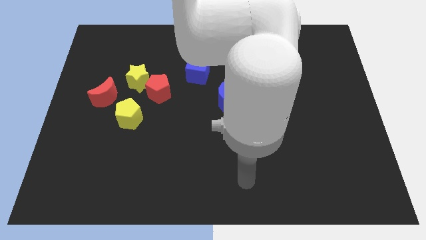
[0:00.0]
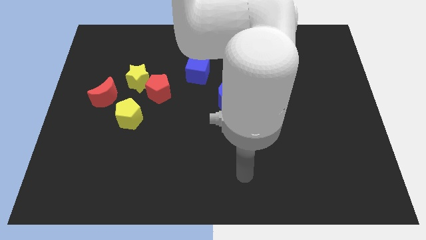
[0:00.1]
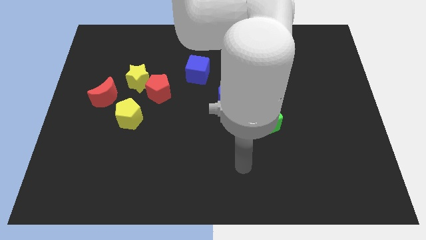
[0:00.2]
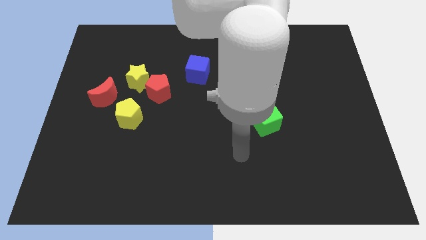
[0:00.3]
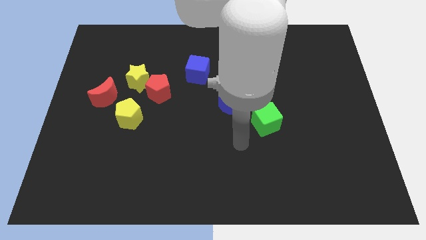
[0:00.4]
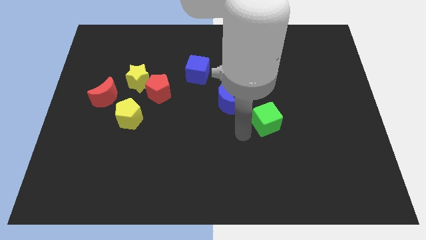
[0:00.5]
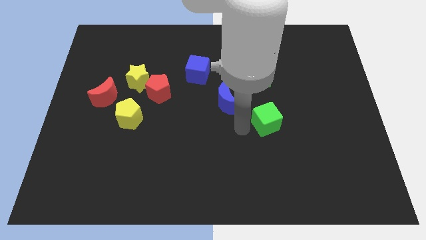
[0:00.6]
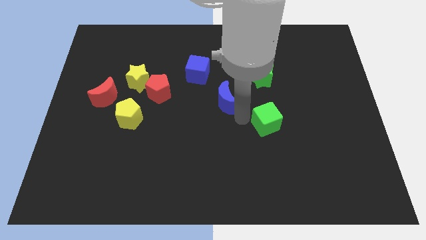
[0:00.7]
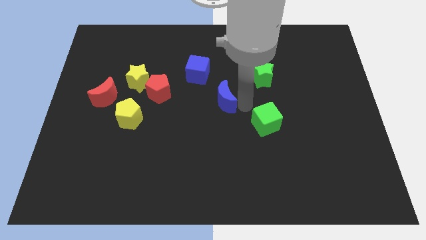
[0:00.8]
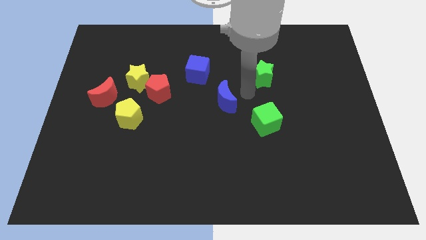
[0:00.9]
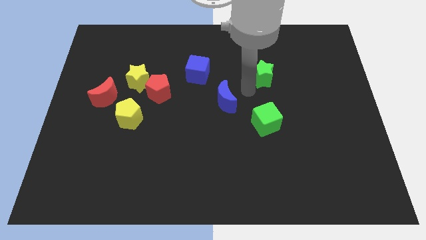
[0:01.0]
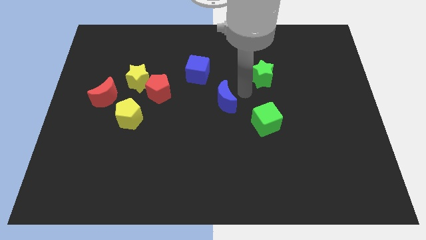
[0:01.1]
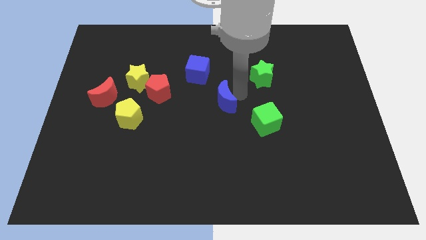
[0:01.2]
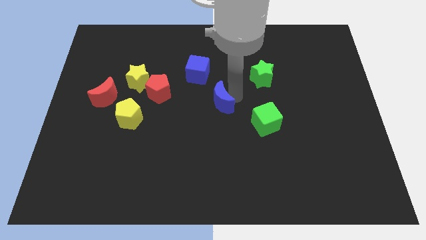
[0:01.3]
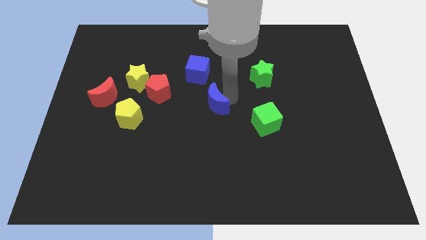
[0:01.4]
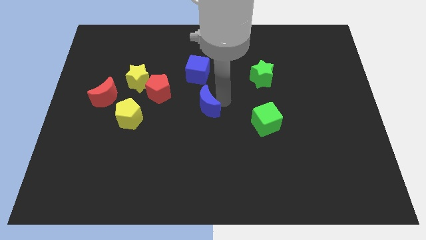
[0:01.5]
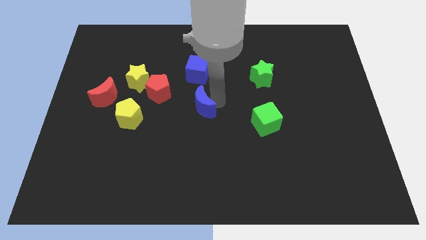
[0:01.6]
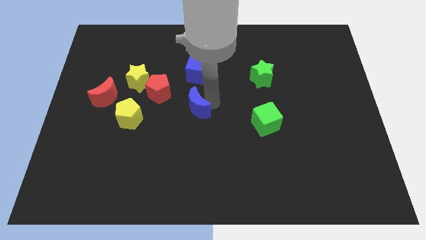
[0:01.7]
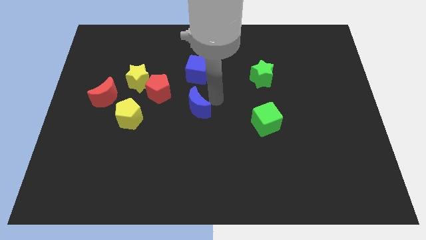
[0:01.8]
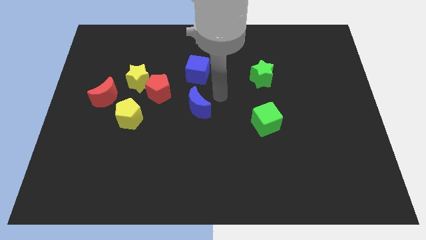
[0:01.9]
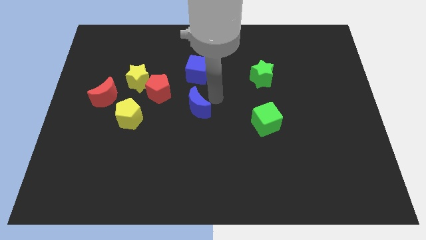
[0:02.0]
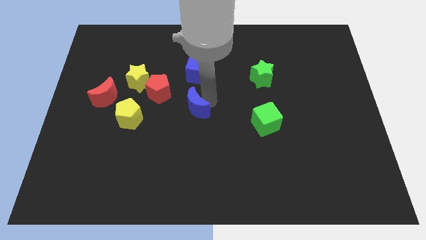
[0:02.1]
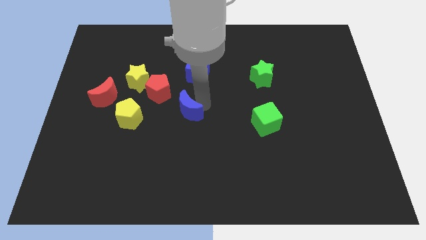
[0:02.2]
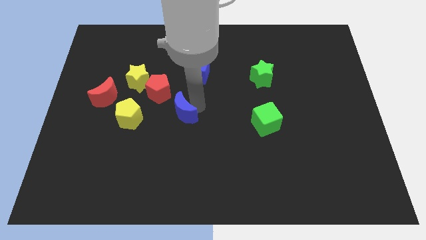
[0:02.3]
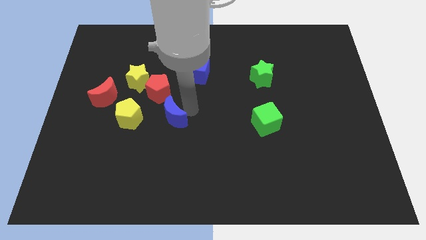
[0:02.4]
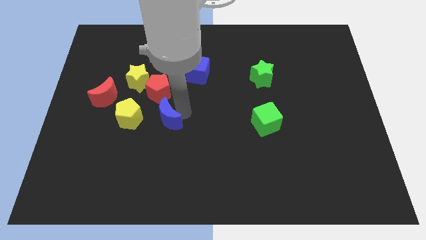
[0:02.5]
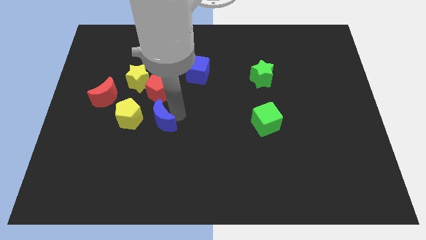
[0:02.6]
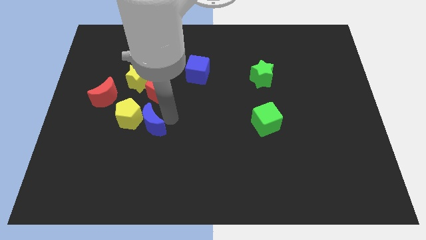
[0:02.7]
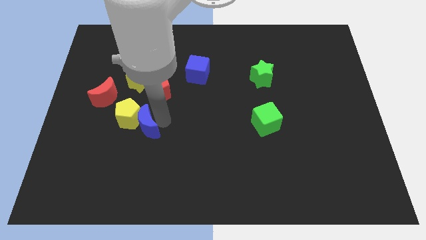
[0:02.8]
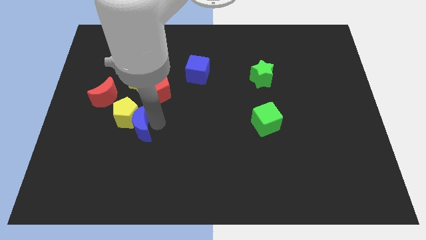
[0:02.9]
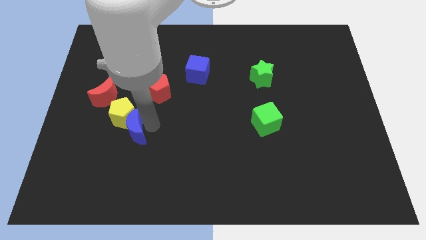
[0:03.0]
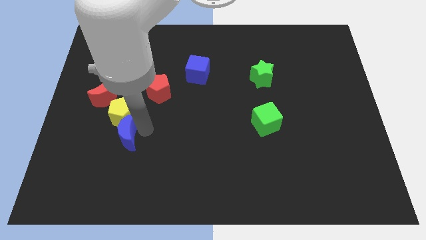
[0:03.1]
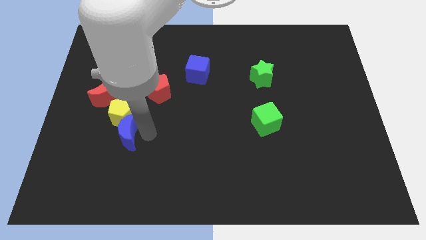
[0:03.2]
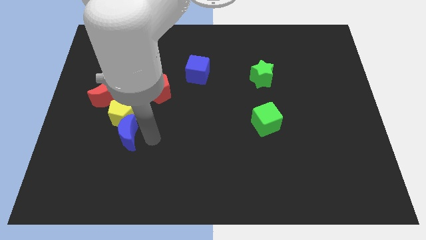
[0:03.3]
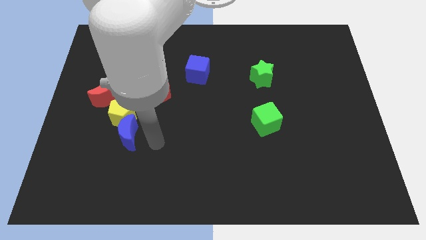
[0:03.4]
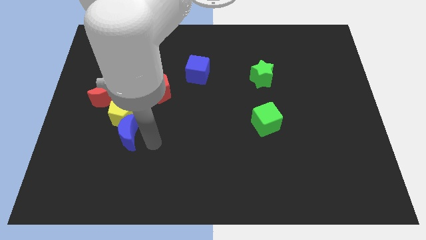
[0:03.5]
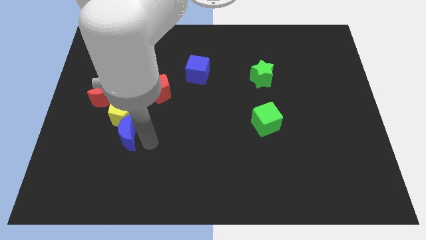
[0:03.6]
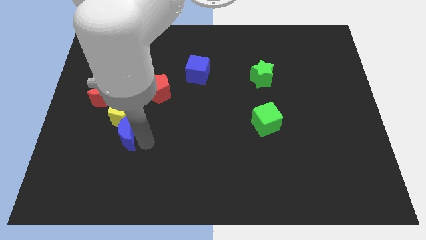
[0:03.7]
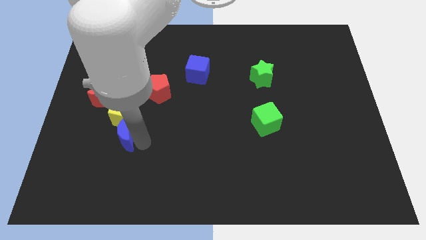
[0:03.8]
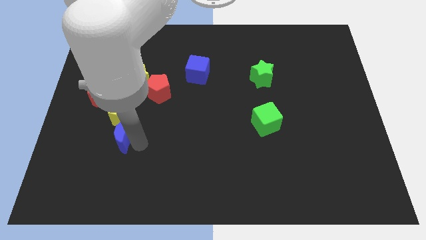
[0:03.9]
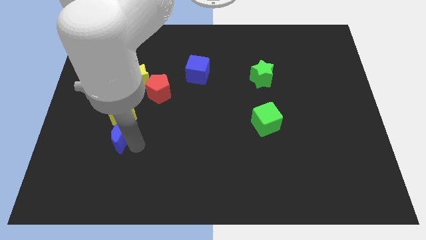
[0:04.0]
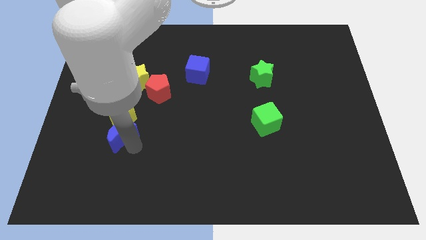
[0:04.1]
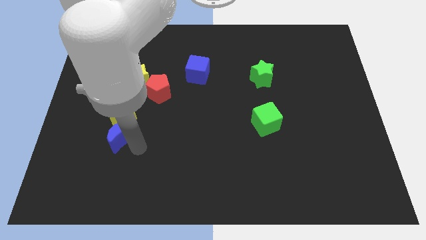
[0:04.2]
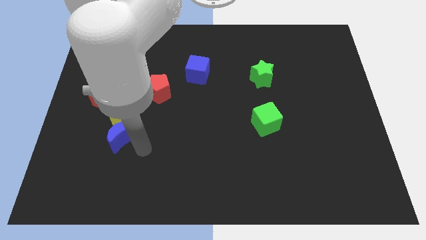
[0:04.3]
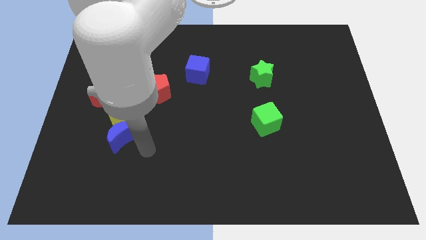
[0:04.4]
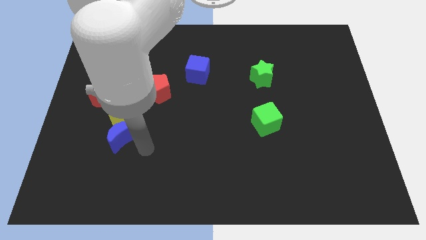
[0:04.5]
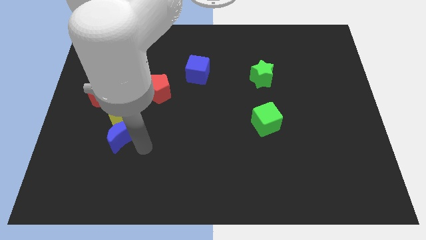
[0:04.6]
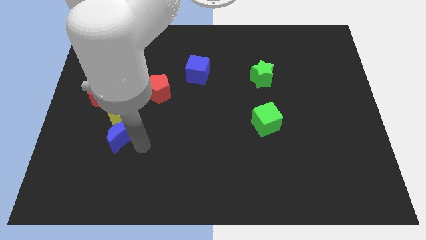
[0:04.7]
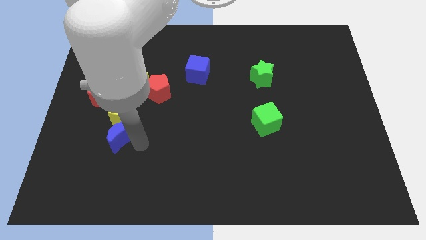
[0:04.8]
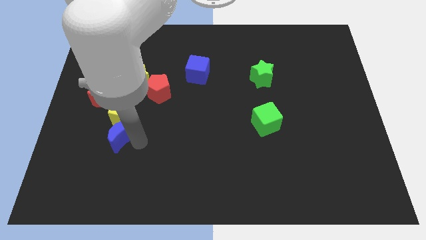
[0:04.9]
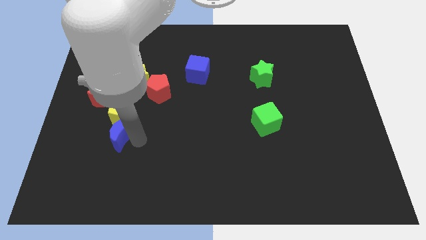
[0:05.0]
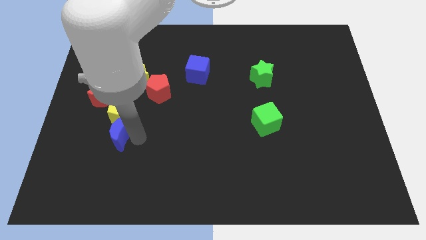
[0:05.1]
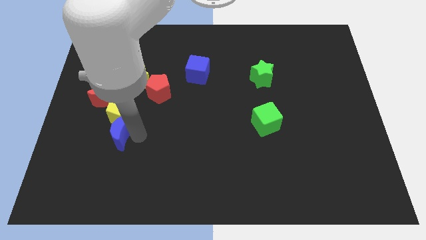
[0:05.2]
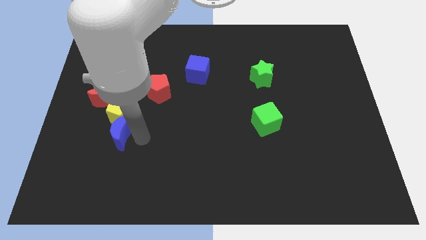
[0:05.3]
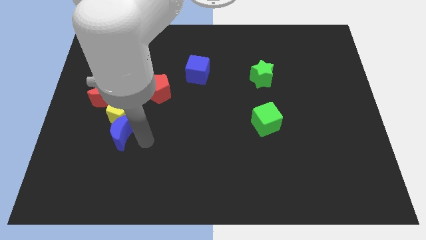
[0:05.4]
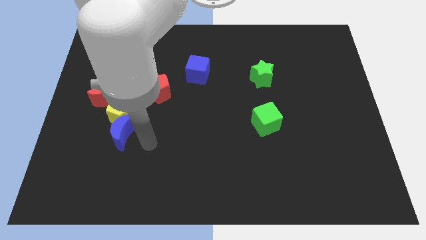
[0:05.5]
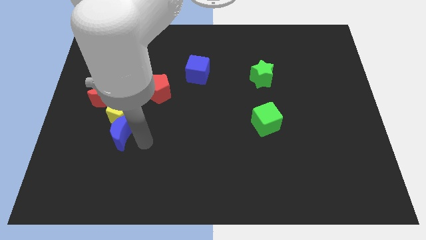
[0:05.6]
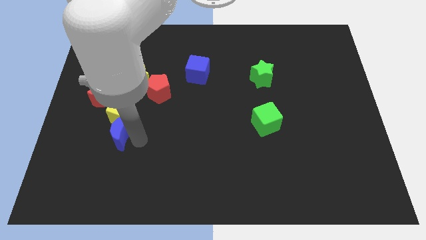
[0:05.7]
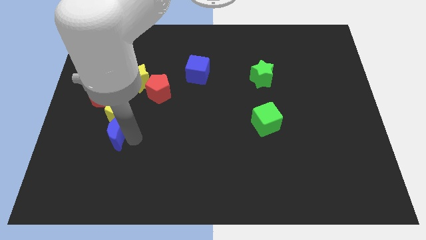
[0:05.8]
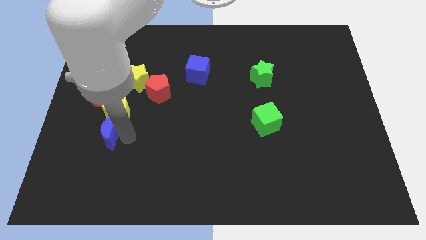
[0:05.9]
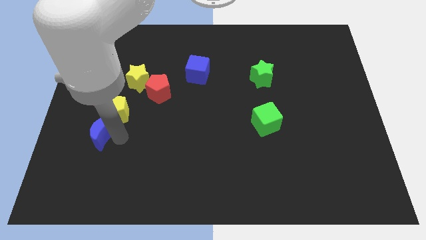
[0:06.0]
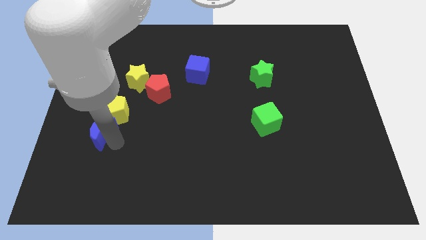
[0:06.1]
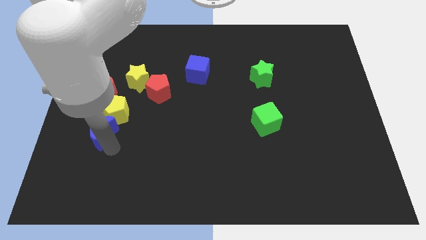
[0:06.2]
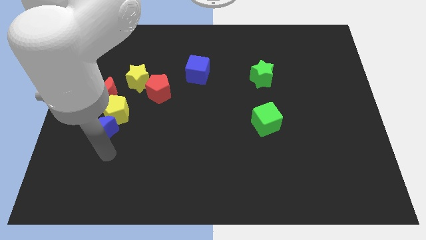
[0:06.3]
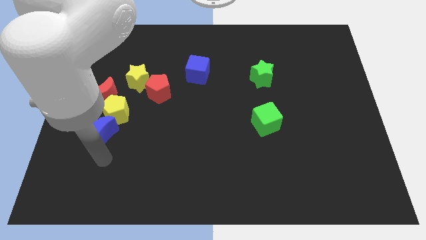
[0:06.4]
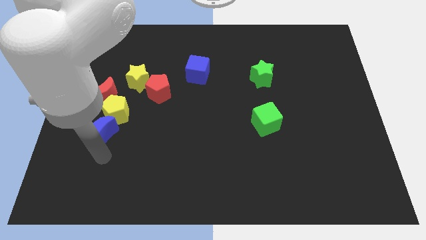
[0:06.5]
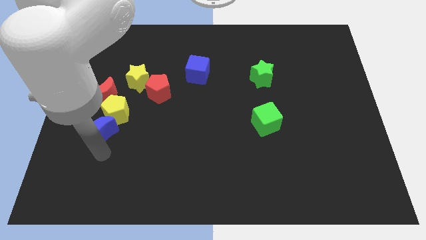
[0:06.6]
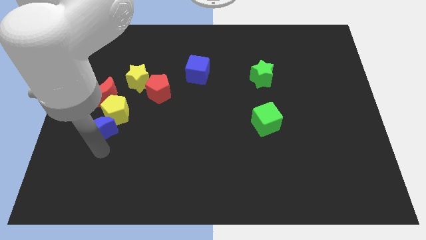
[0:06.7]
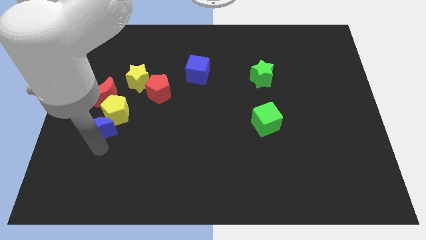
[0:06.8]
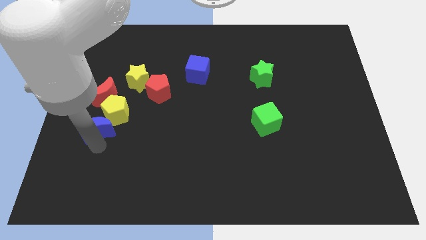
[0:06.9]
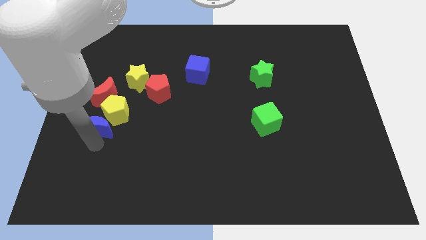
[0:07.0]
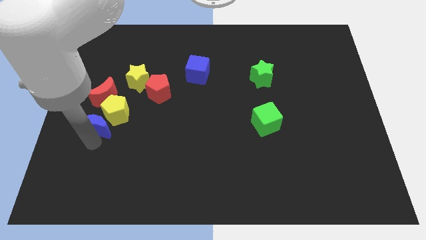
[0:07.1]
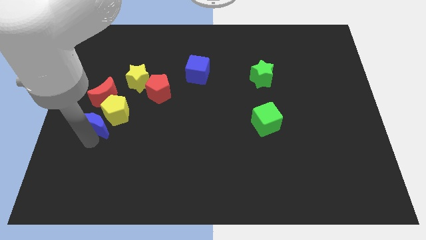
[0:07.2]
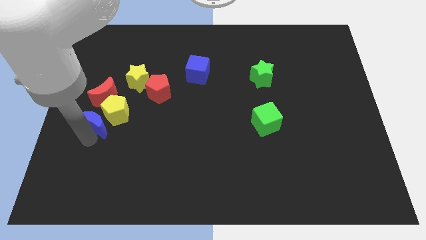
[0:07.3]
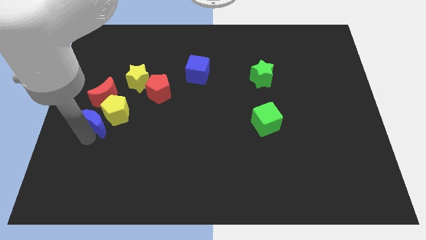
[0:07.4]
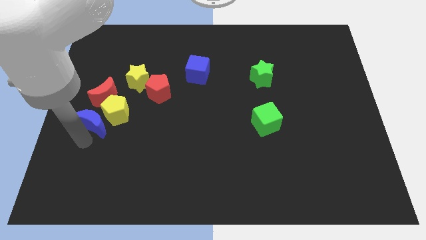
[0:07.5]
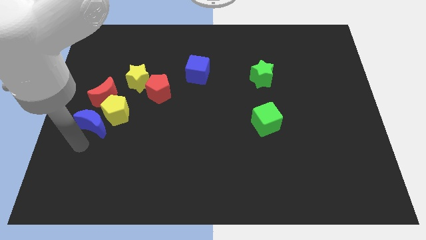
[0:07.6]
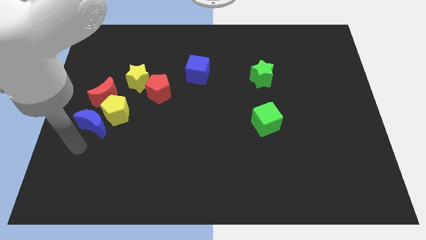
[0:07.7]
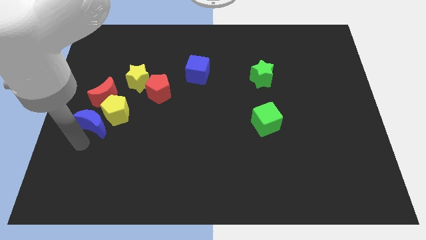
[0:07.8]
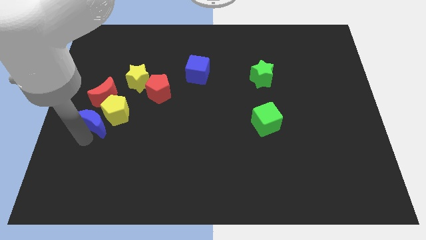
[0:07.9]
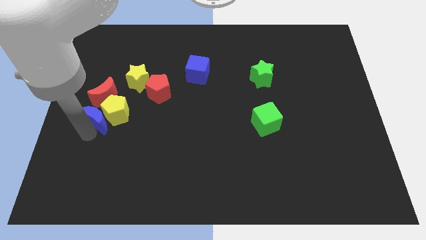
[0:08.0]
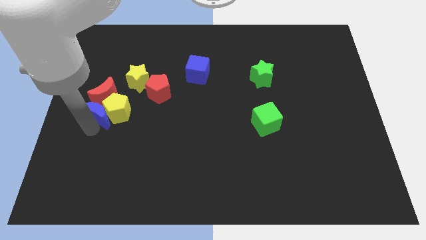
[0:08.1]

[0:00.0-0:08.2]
push the blue moon close to the red moon
